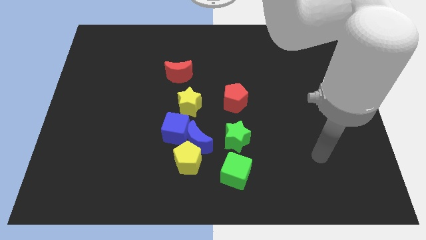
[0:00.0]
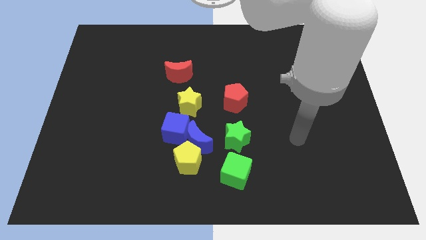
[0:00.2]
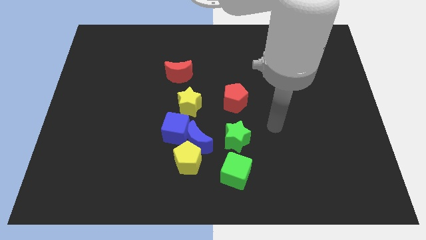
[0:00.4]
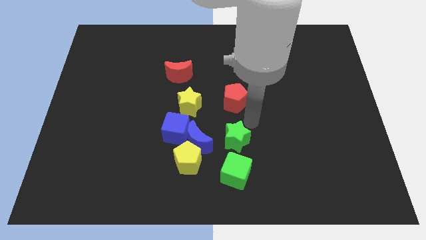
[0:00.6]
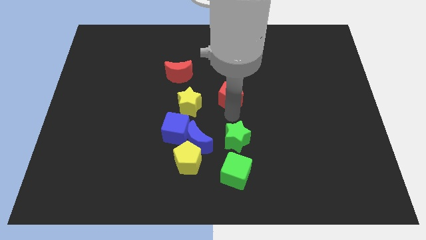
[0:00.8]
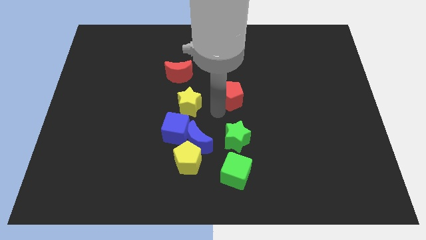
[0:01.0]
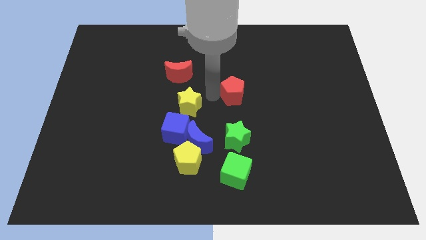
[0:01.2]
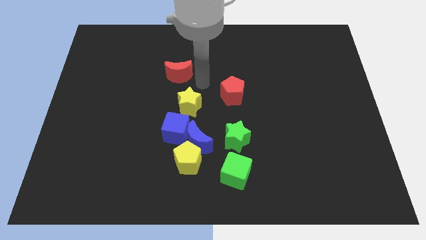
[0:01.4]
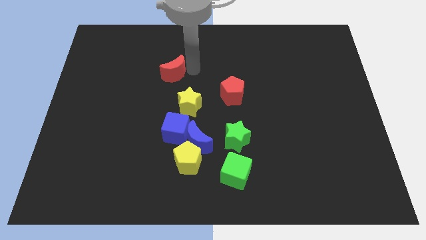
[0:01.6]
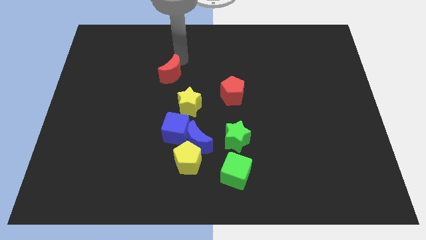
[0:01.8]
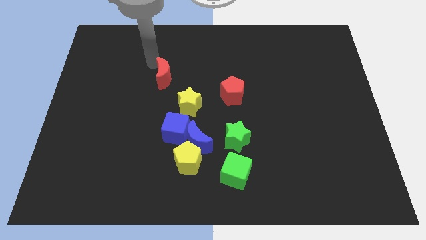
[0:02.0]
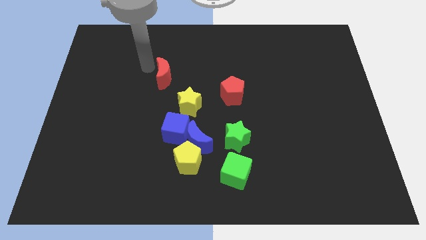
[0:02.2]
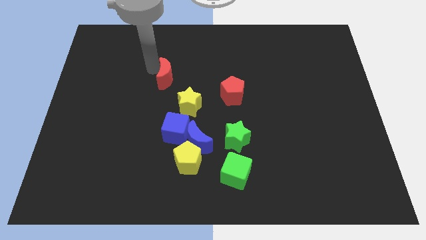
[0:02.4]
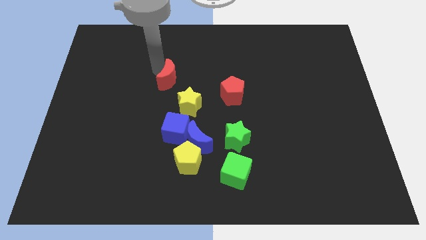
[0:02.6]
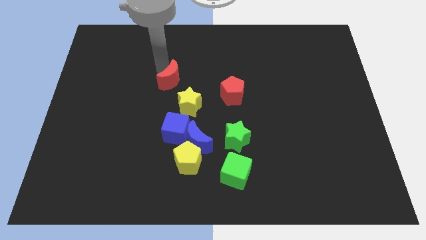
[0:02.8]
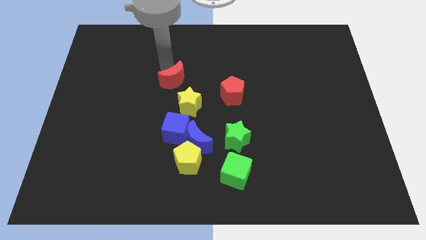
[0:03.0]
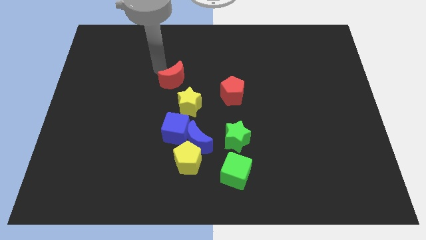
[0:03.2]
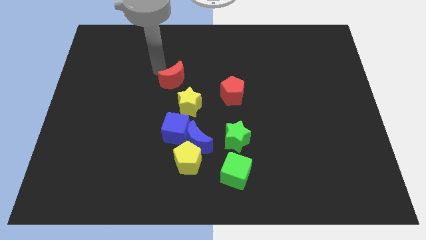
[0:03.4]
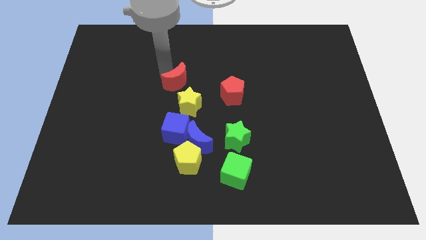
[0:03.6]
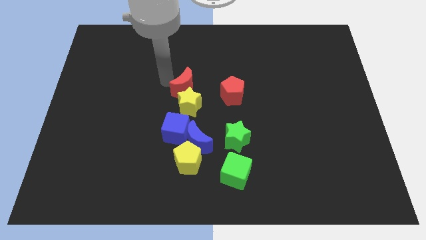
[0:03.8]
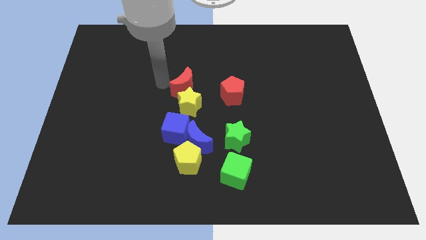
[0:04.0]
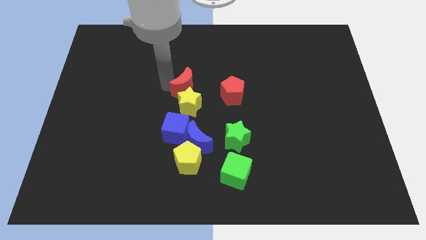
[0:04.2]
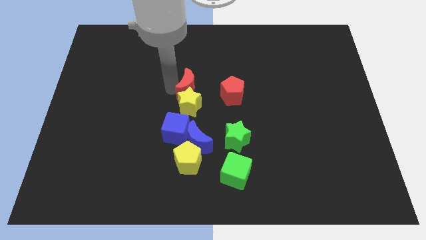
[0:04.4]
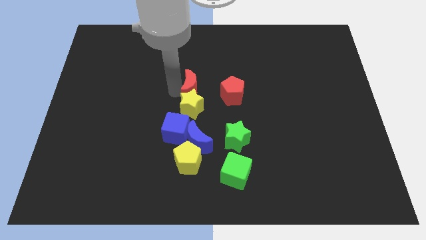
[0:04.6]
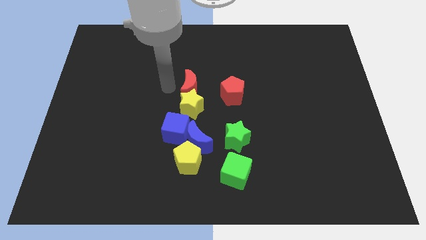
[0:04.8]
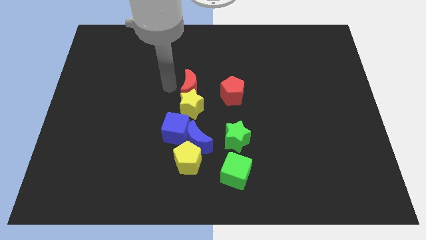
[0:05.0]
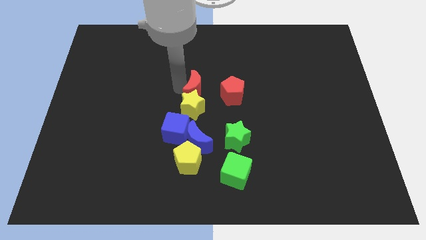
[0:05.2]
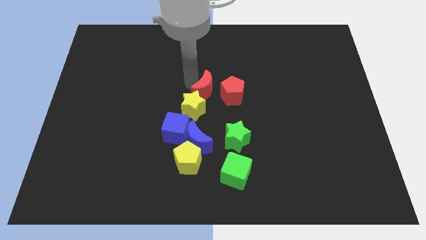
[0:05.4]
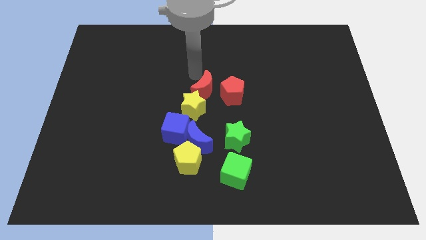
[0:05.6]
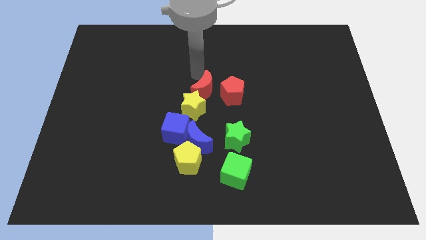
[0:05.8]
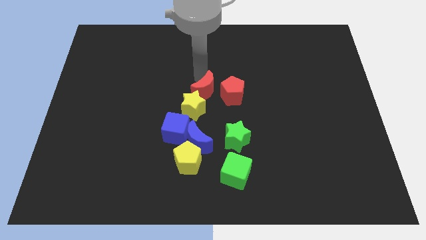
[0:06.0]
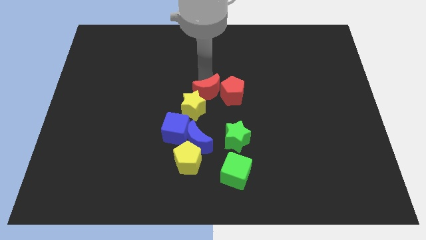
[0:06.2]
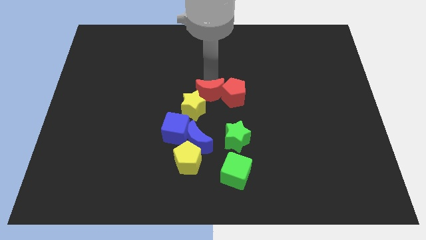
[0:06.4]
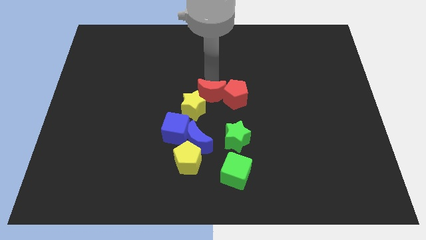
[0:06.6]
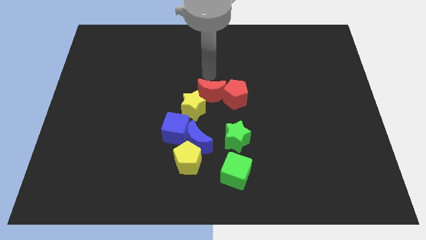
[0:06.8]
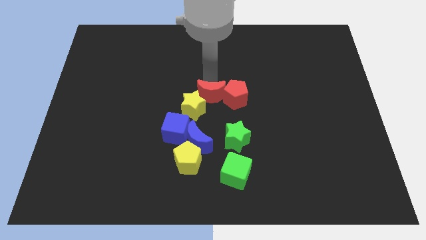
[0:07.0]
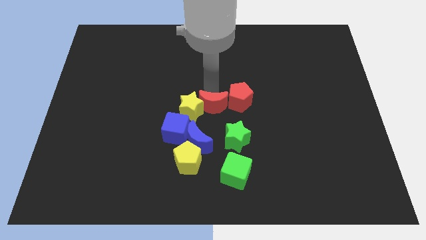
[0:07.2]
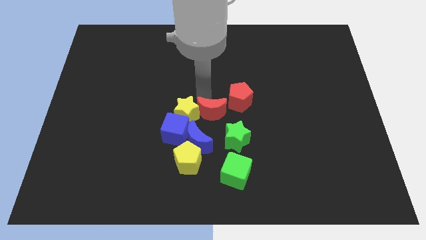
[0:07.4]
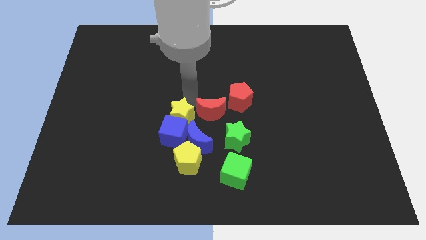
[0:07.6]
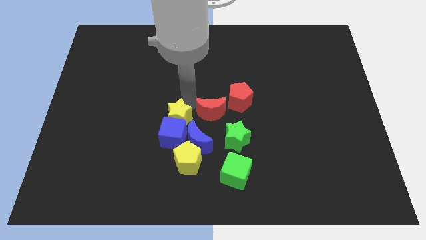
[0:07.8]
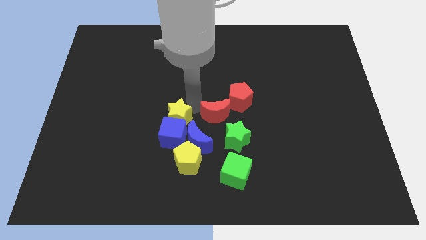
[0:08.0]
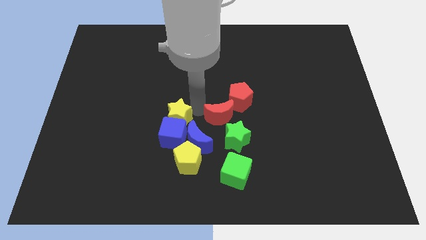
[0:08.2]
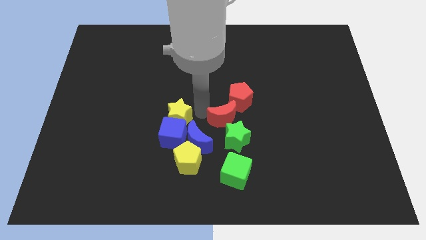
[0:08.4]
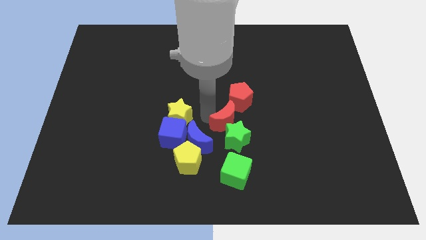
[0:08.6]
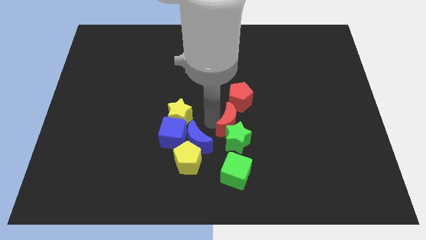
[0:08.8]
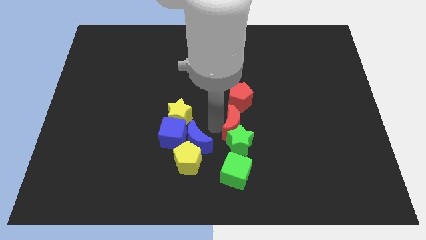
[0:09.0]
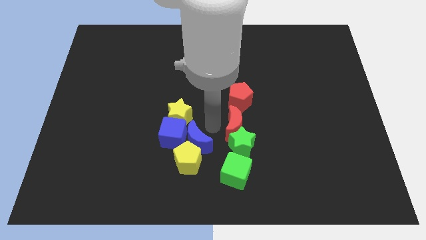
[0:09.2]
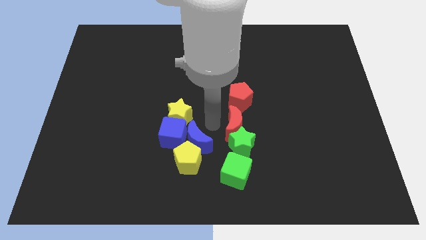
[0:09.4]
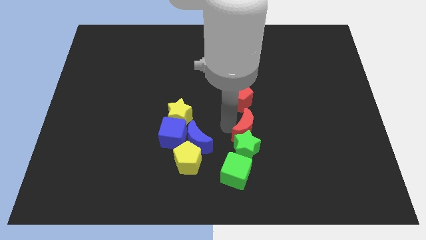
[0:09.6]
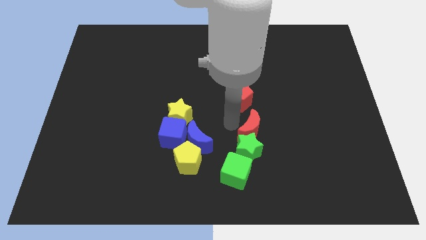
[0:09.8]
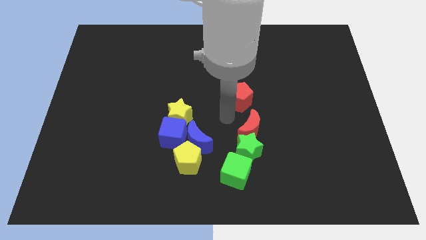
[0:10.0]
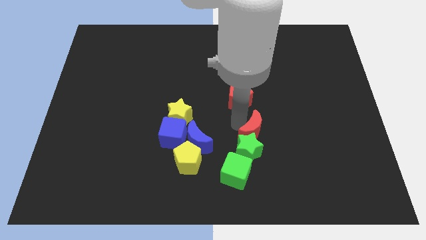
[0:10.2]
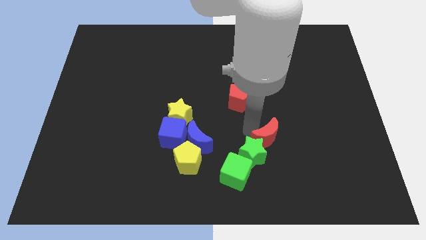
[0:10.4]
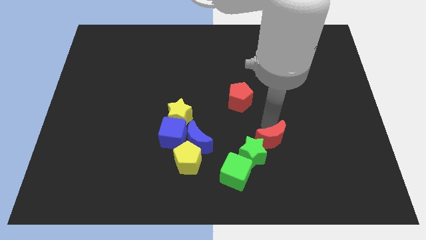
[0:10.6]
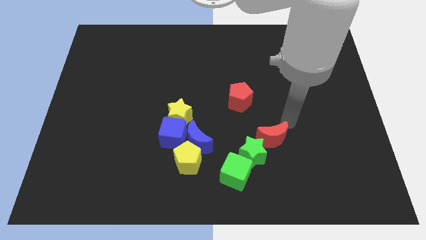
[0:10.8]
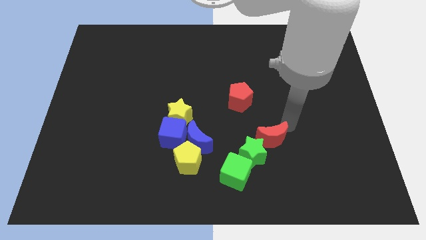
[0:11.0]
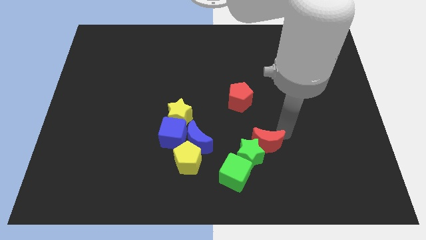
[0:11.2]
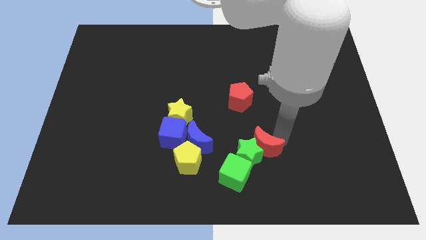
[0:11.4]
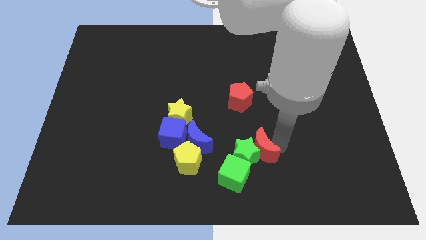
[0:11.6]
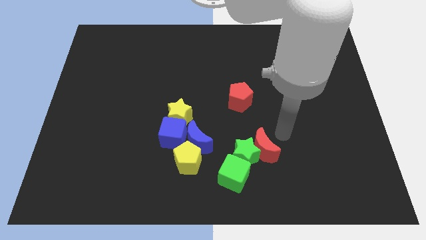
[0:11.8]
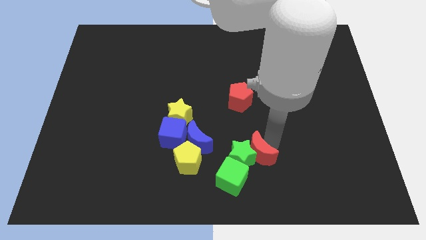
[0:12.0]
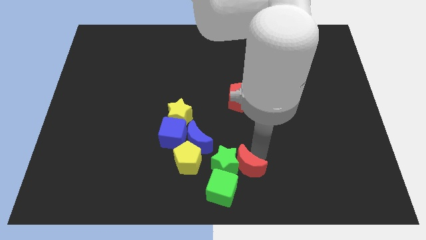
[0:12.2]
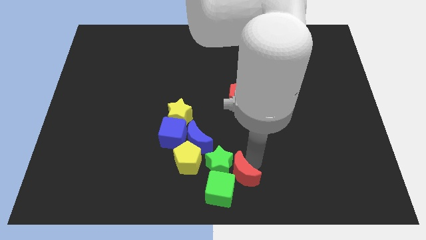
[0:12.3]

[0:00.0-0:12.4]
put the red moon next to the green cube

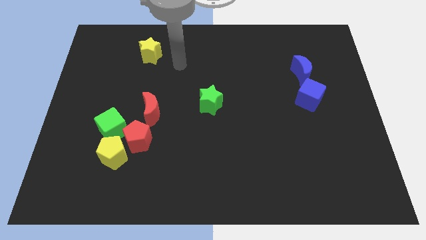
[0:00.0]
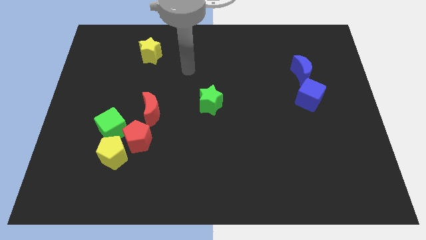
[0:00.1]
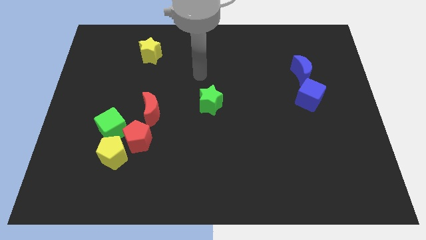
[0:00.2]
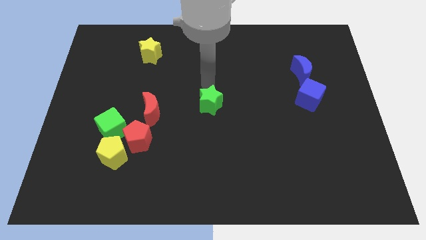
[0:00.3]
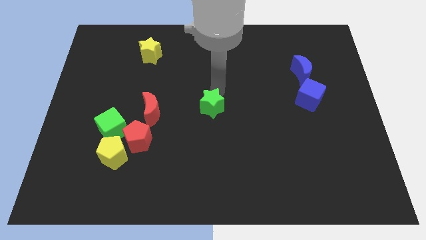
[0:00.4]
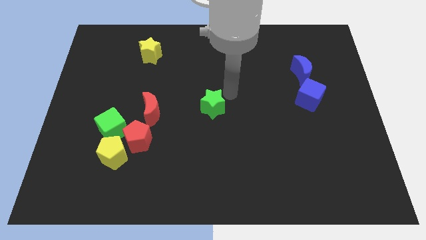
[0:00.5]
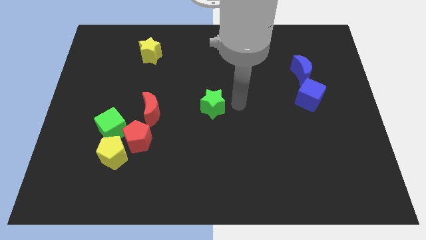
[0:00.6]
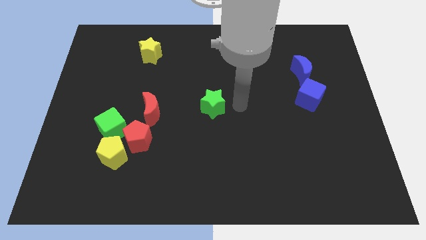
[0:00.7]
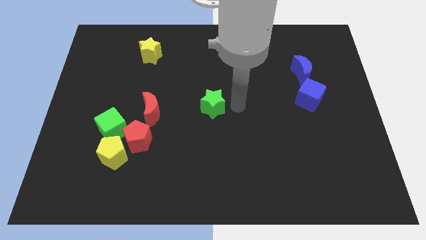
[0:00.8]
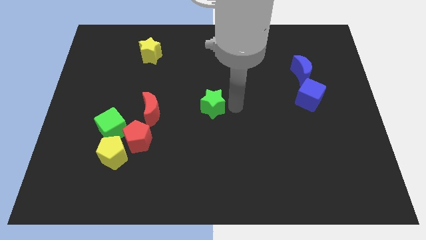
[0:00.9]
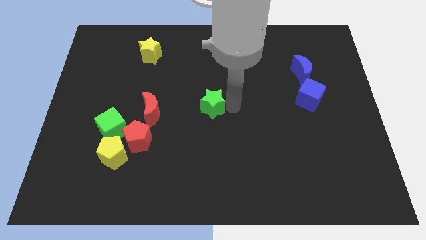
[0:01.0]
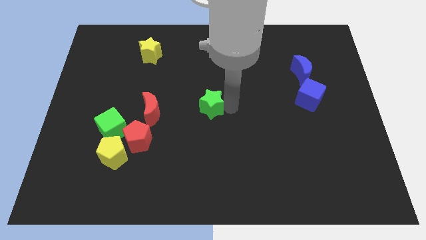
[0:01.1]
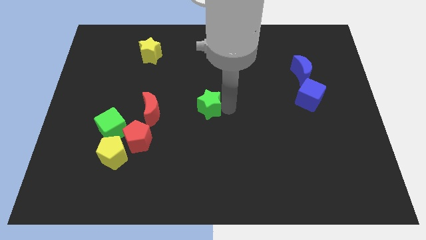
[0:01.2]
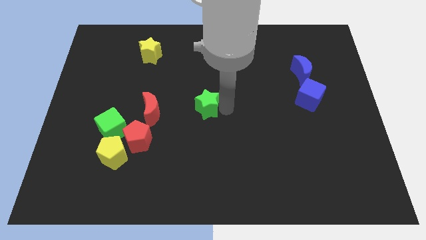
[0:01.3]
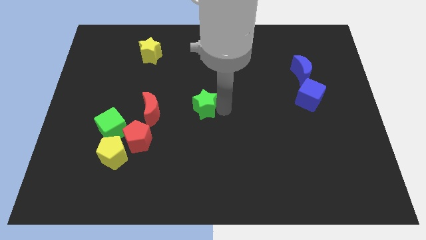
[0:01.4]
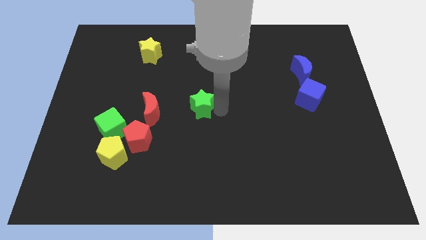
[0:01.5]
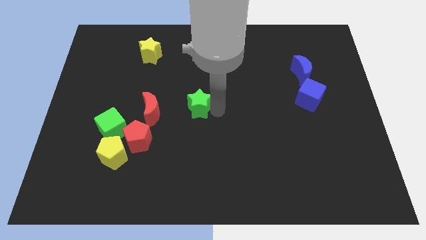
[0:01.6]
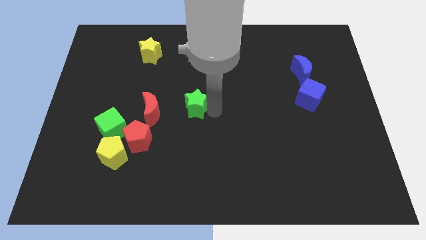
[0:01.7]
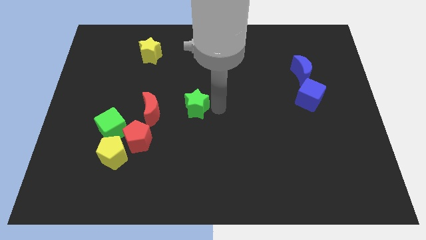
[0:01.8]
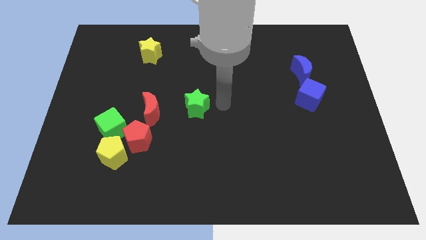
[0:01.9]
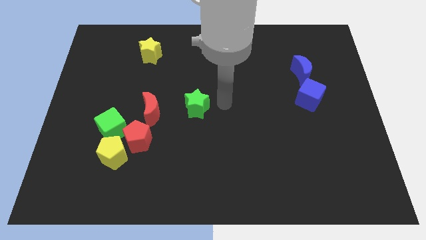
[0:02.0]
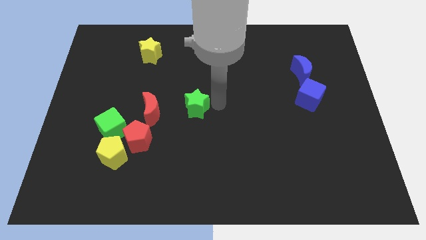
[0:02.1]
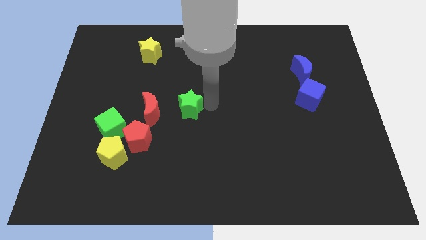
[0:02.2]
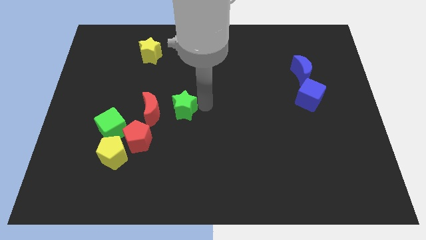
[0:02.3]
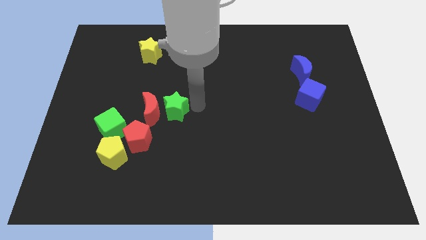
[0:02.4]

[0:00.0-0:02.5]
move the green star to the red moon
